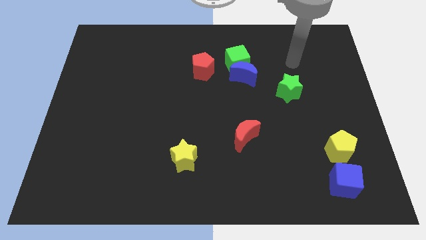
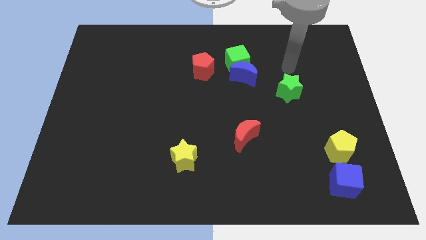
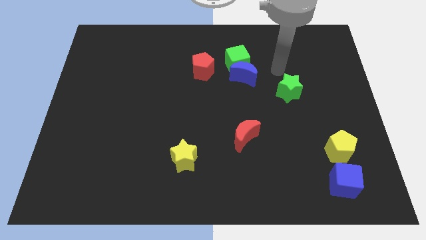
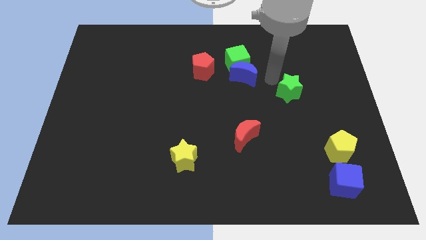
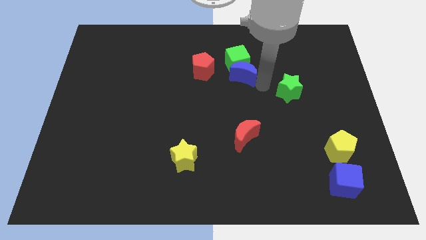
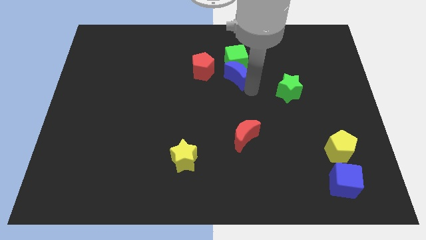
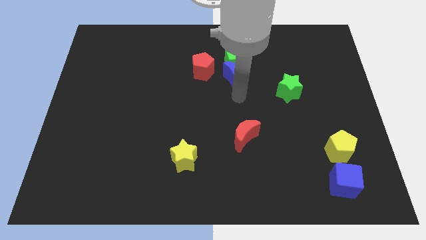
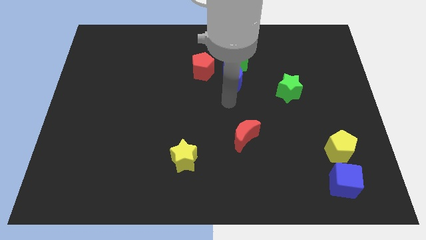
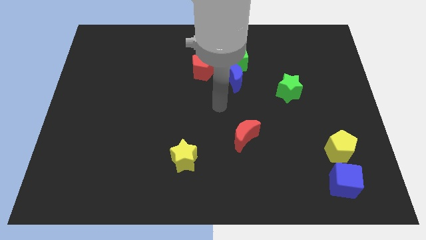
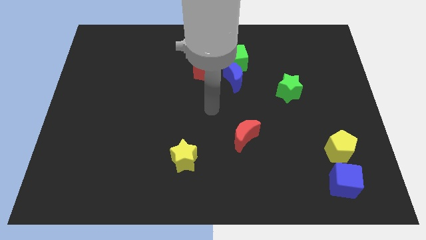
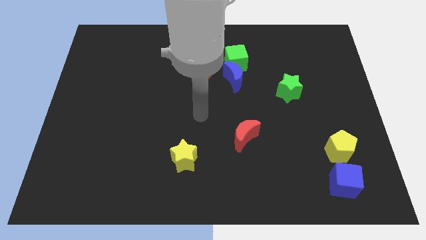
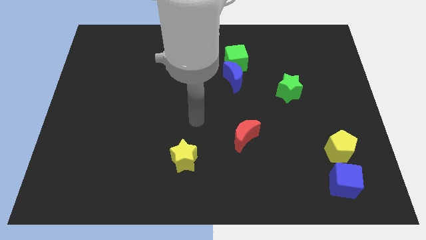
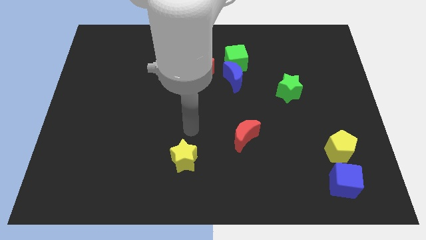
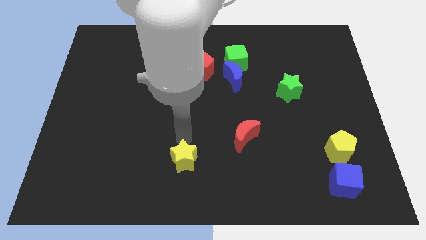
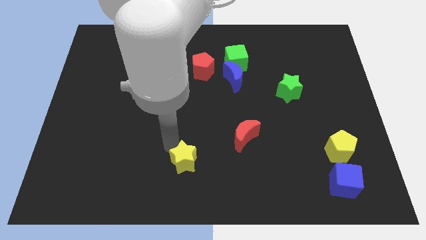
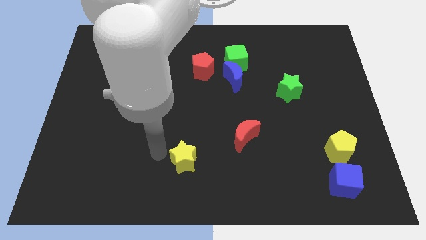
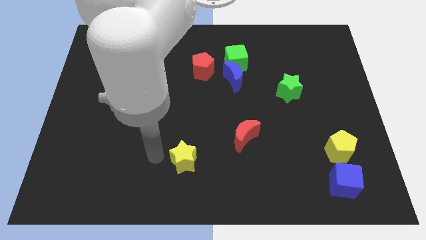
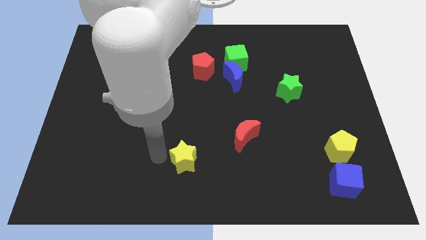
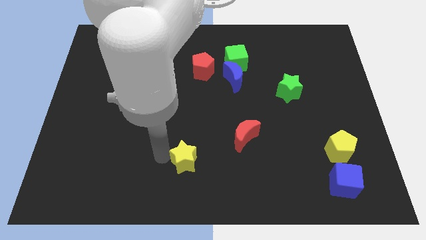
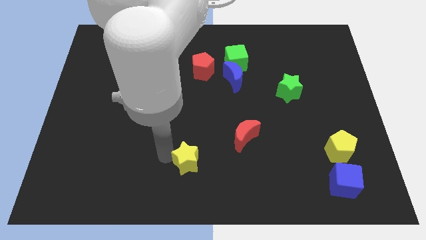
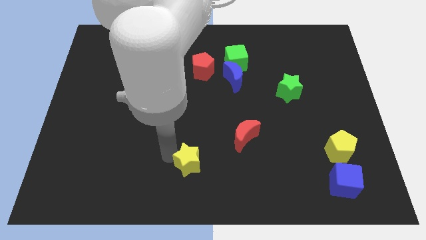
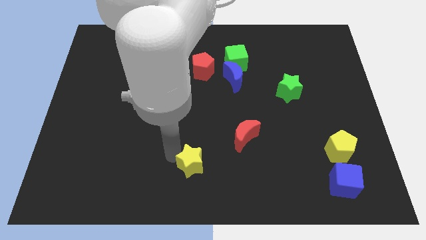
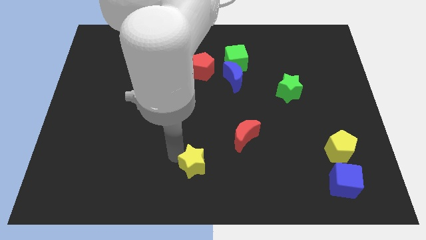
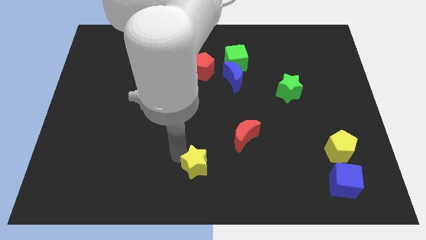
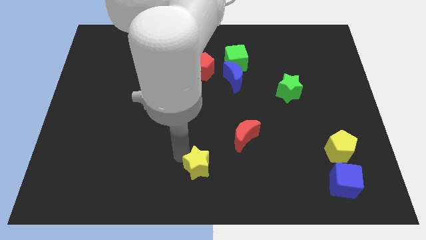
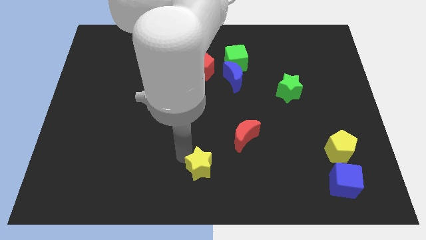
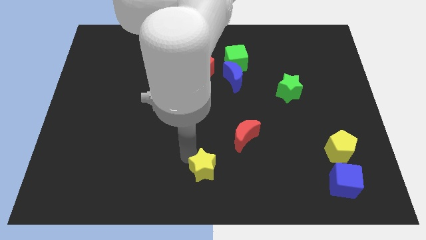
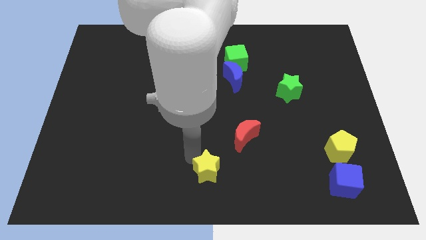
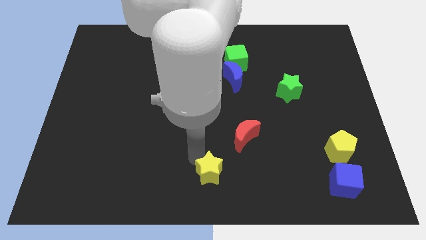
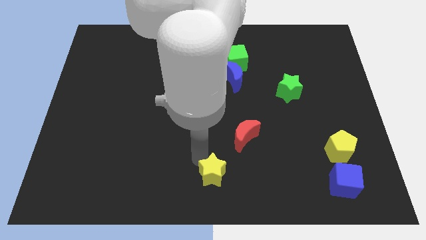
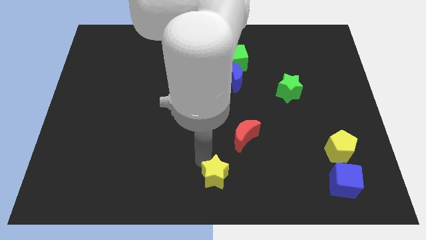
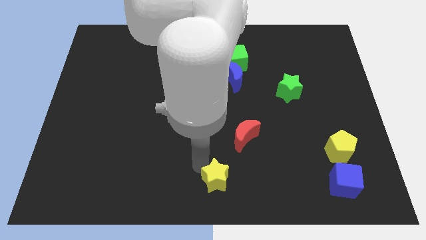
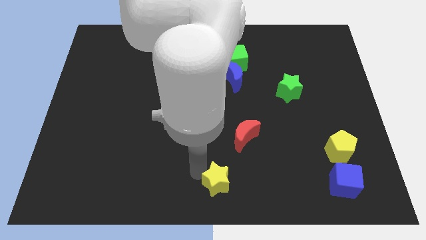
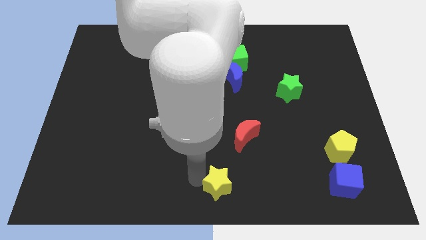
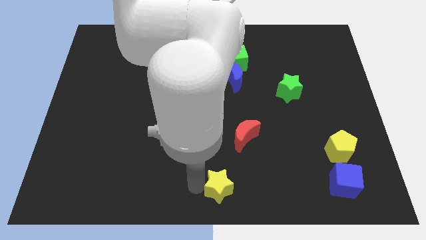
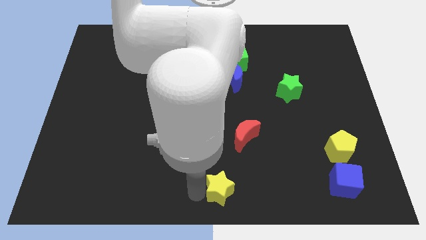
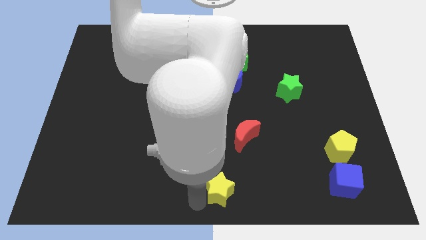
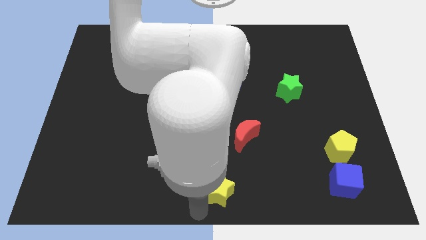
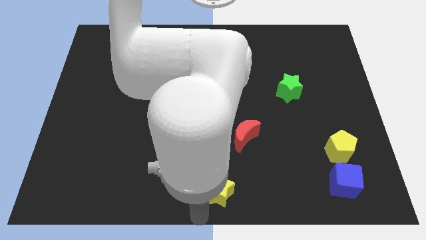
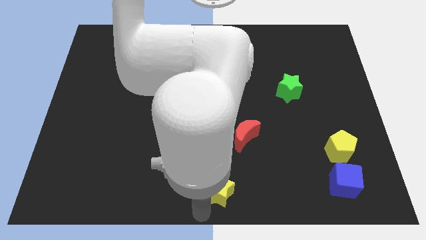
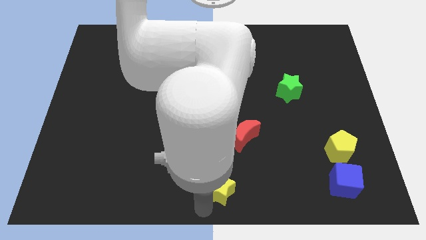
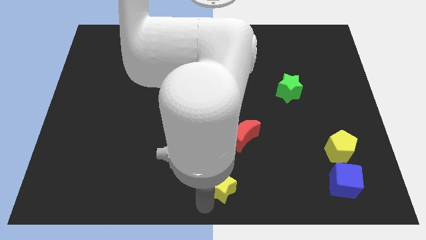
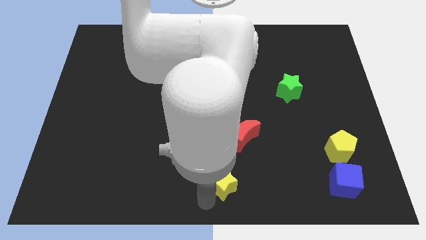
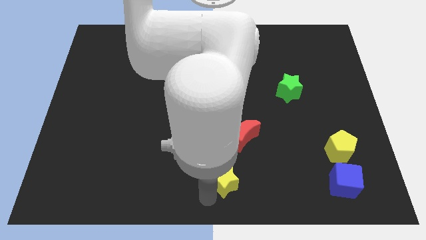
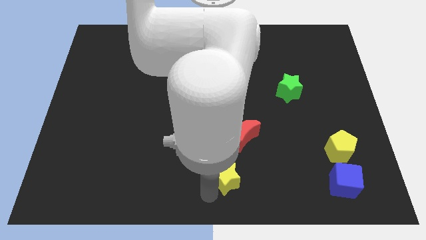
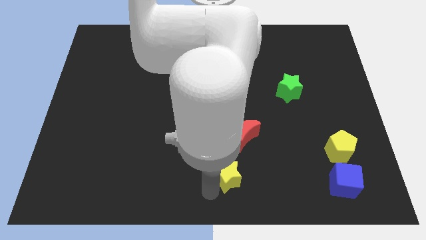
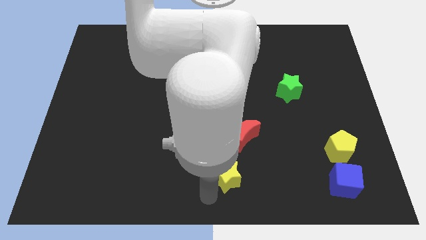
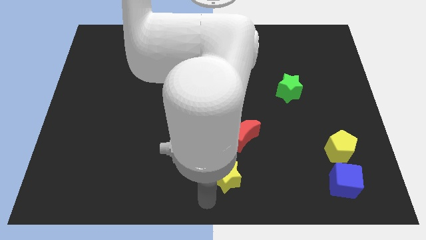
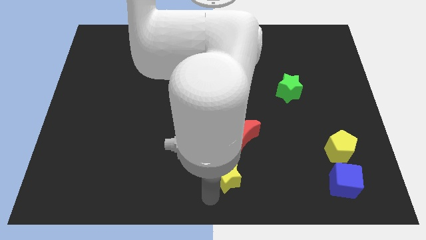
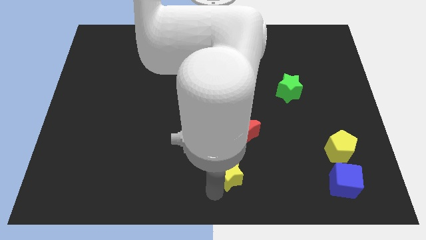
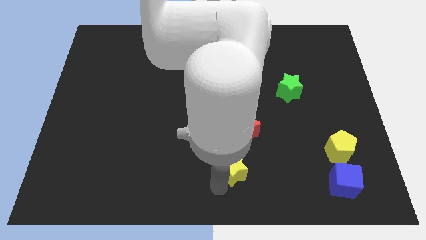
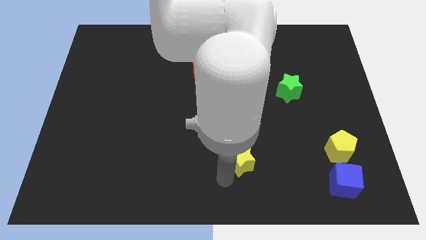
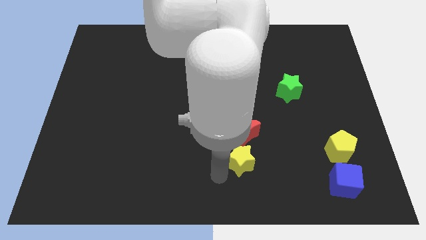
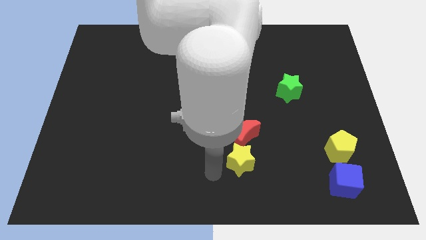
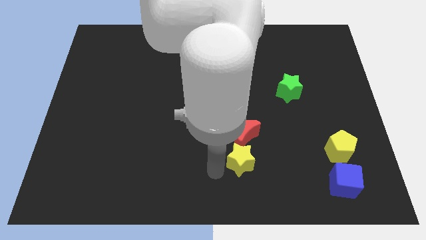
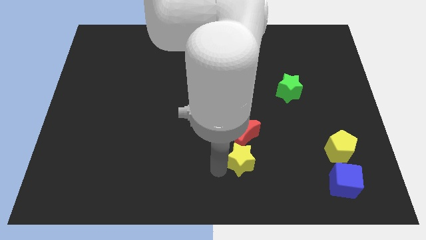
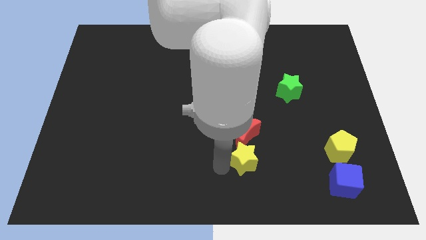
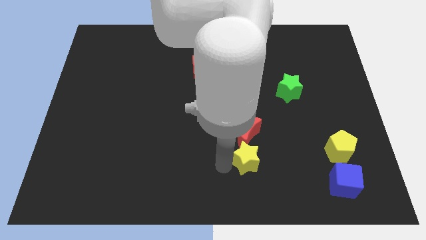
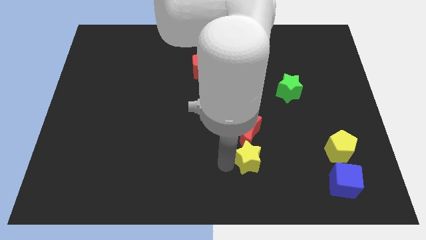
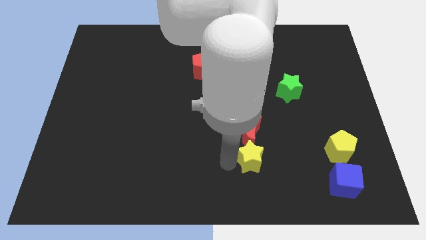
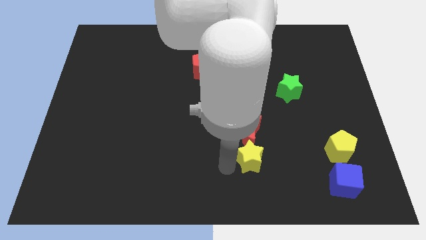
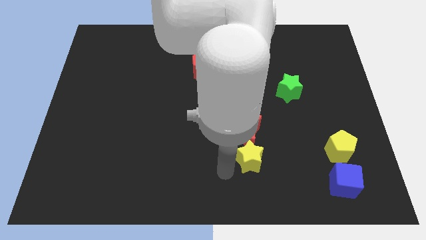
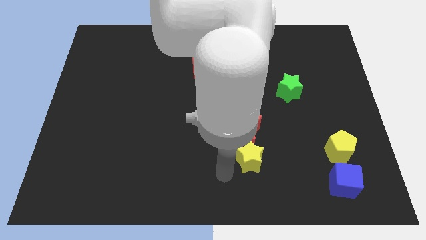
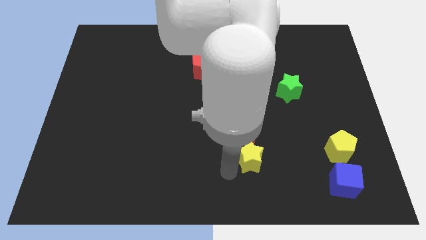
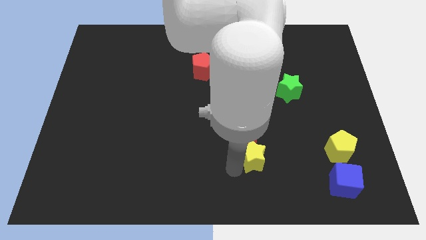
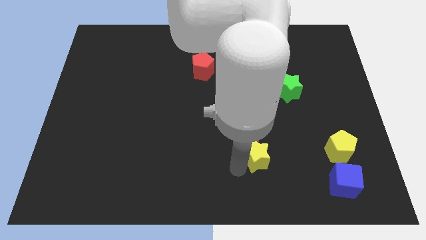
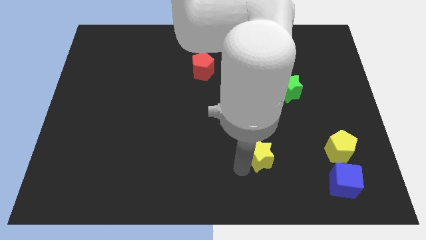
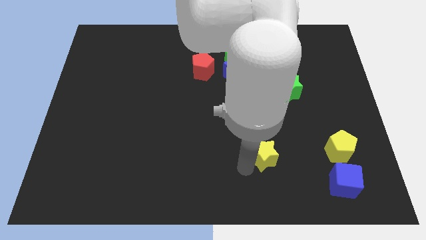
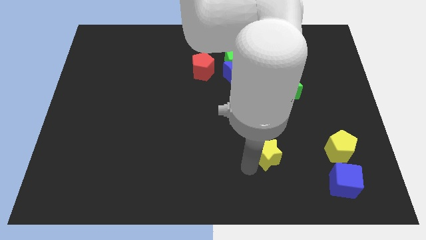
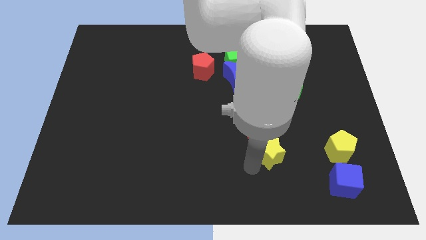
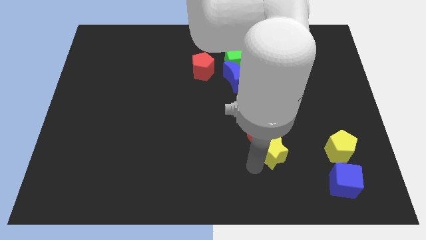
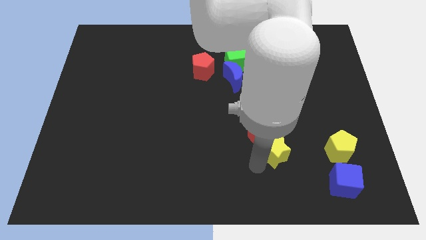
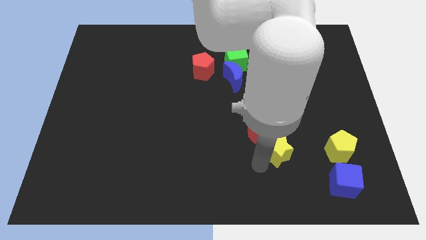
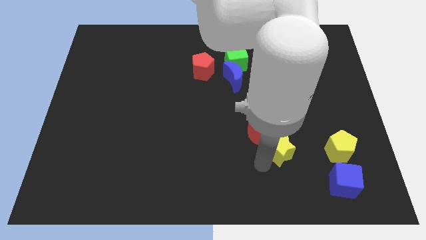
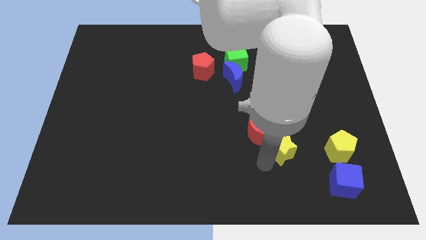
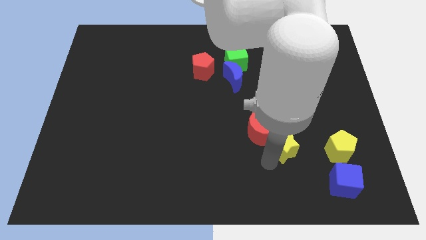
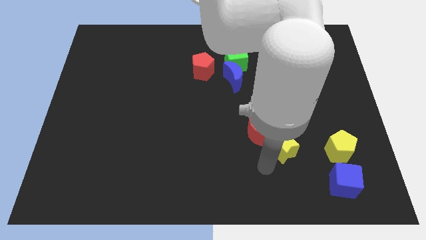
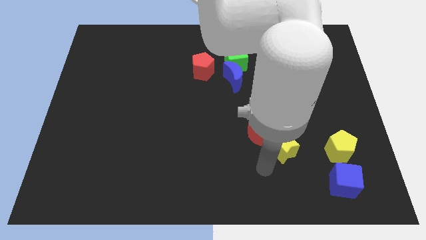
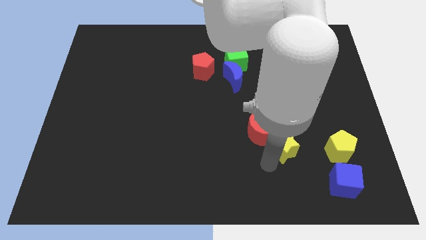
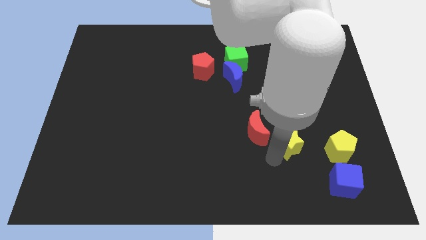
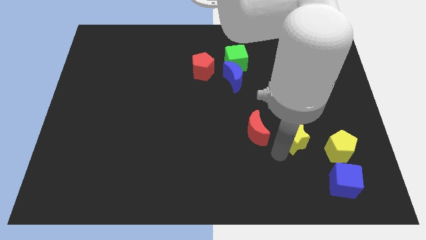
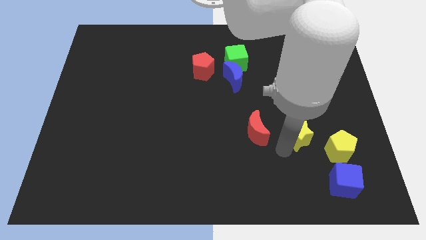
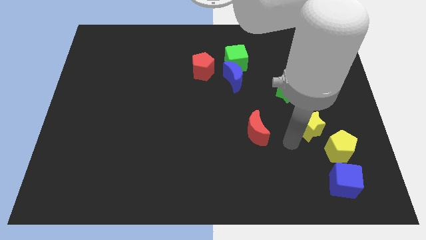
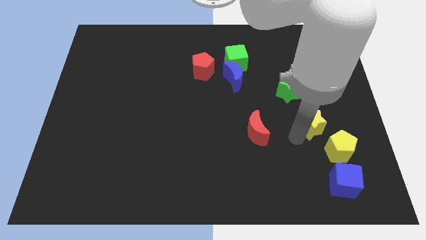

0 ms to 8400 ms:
put the yellow star above the yellow pentagon
